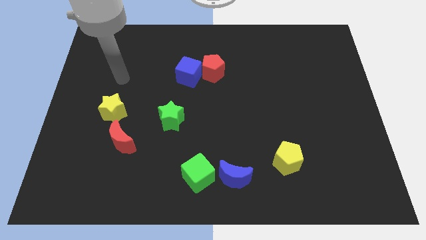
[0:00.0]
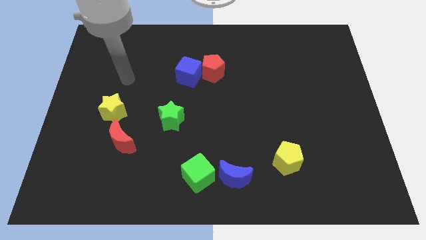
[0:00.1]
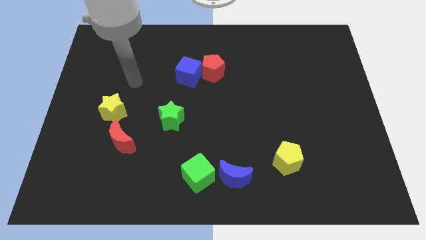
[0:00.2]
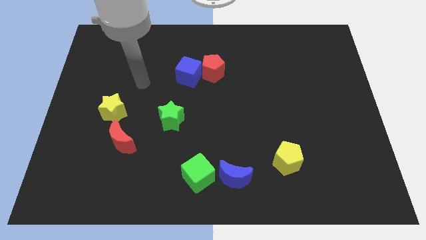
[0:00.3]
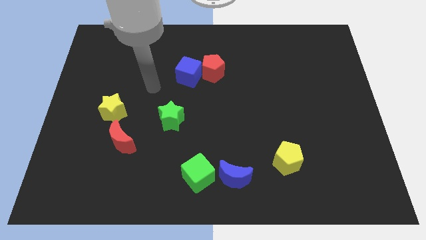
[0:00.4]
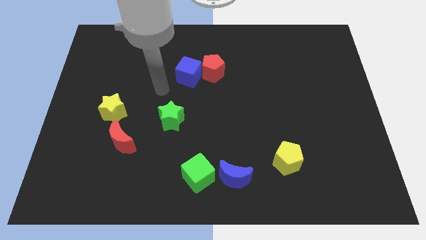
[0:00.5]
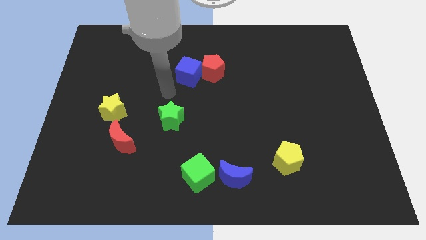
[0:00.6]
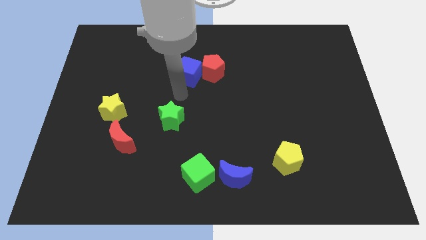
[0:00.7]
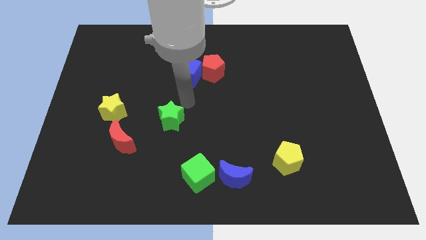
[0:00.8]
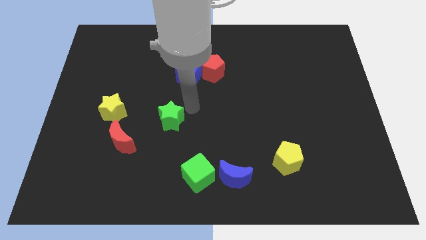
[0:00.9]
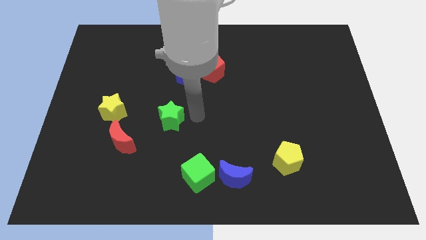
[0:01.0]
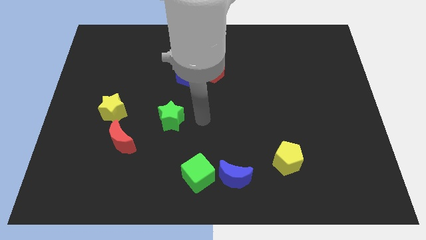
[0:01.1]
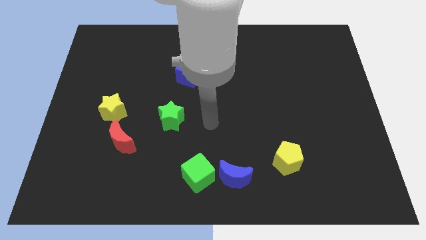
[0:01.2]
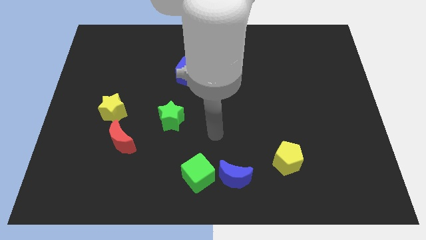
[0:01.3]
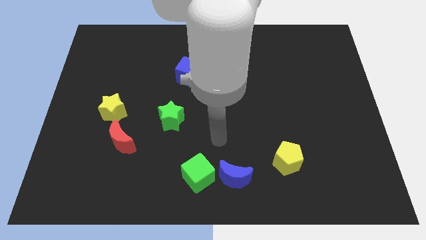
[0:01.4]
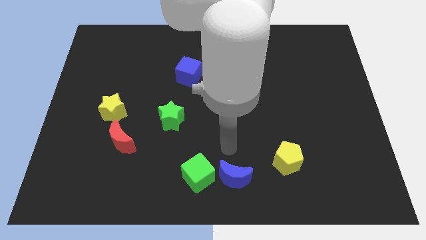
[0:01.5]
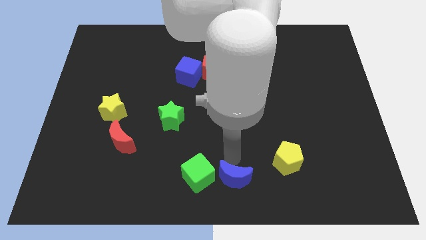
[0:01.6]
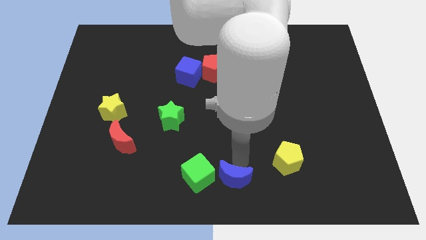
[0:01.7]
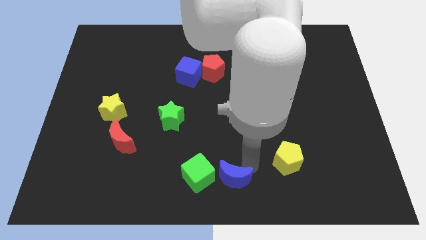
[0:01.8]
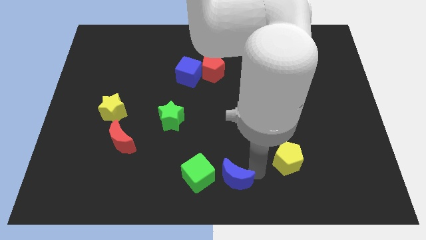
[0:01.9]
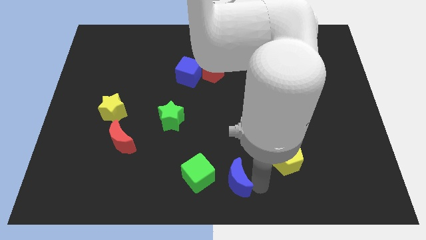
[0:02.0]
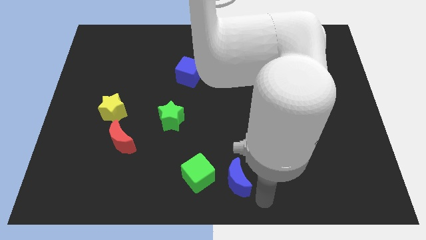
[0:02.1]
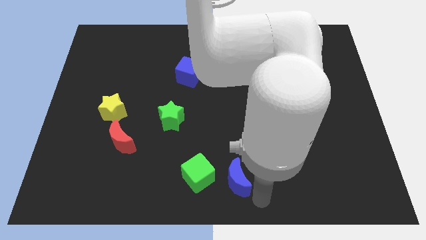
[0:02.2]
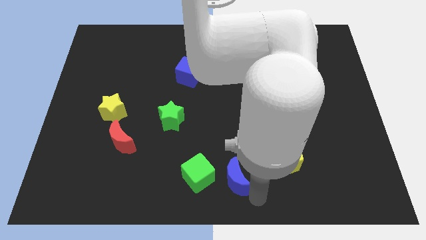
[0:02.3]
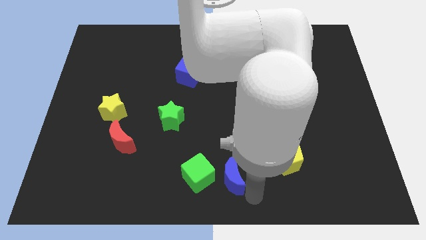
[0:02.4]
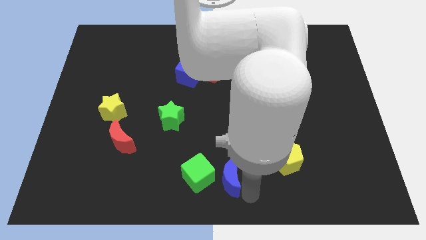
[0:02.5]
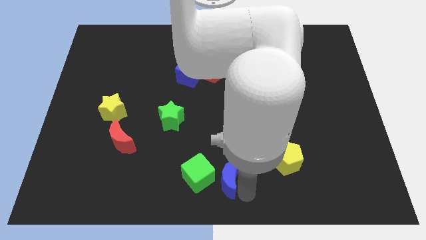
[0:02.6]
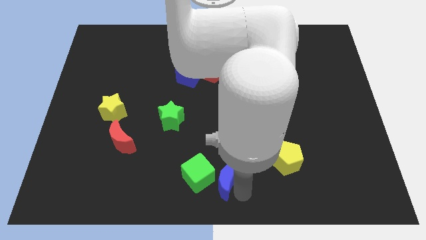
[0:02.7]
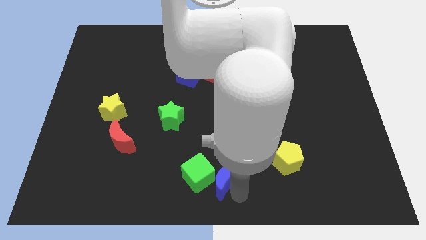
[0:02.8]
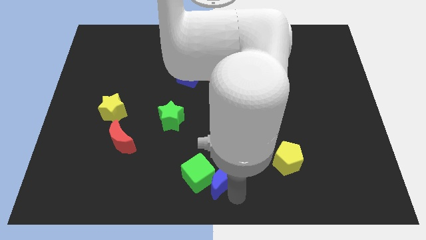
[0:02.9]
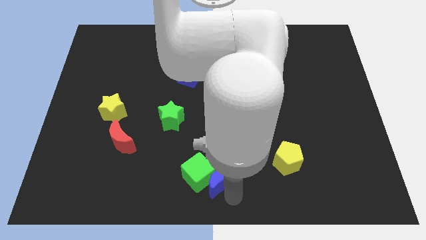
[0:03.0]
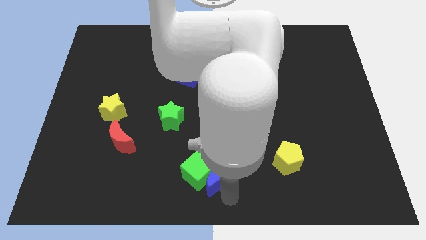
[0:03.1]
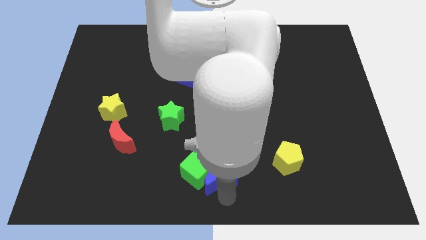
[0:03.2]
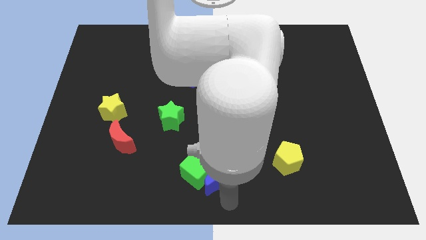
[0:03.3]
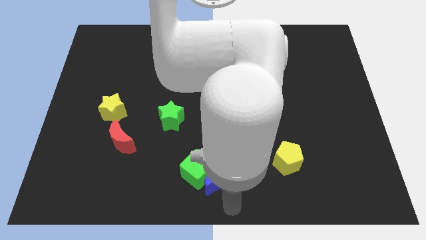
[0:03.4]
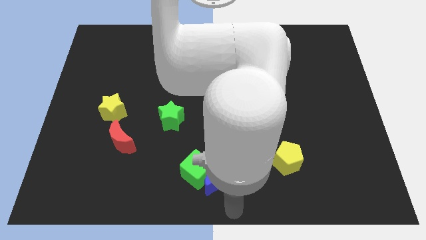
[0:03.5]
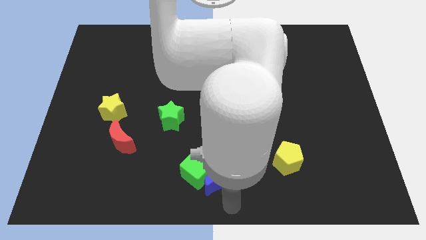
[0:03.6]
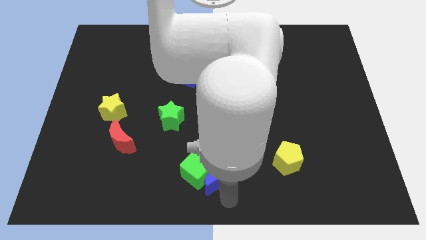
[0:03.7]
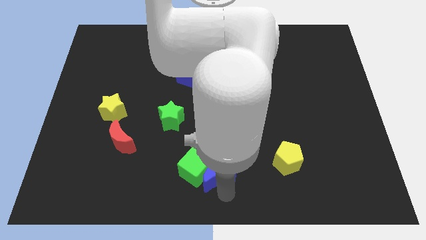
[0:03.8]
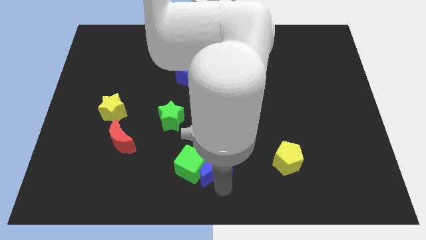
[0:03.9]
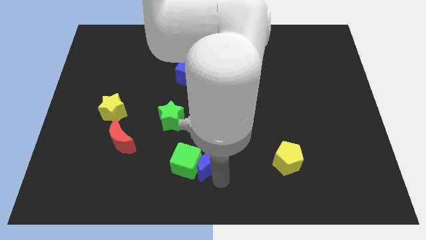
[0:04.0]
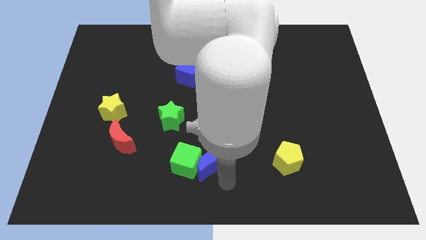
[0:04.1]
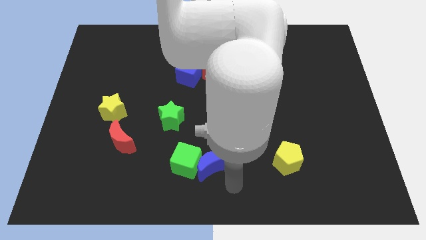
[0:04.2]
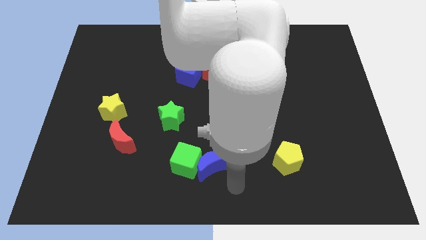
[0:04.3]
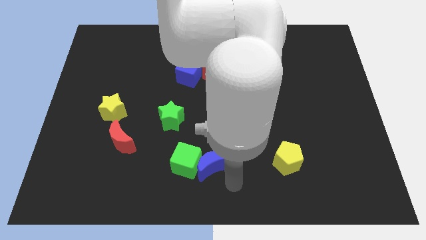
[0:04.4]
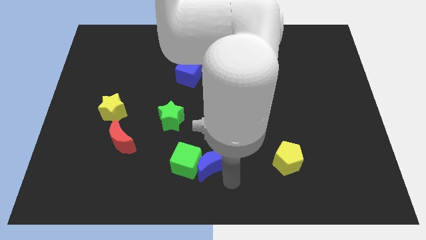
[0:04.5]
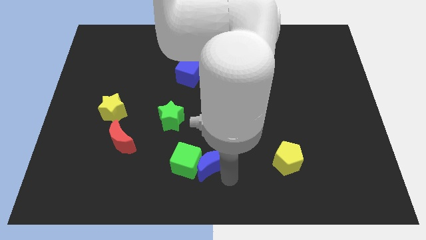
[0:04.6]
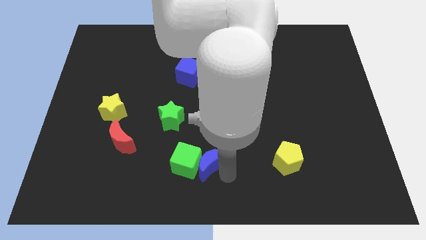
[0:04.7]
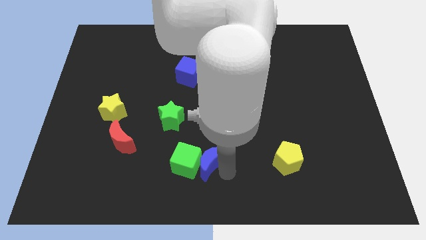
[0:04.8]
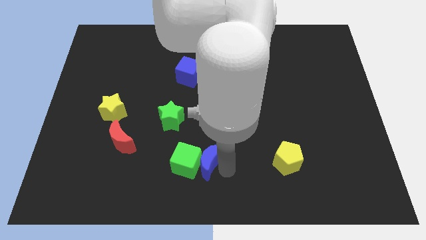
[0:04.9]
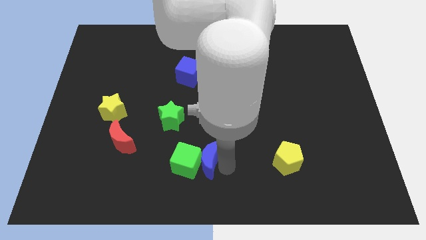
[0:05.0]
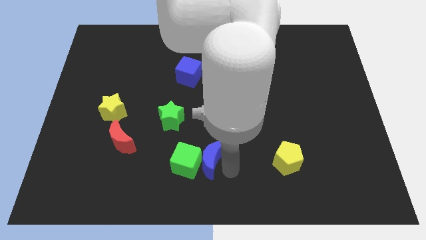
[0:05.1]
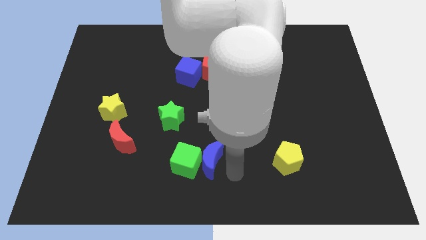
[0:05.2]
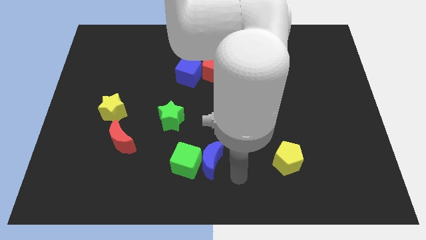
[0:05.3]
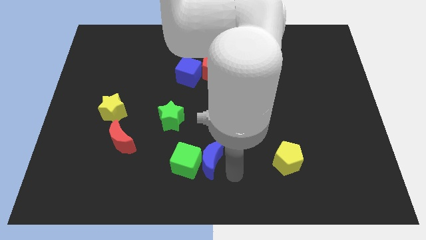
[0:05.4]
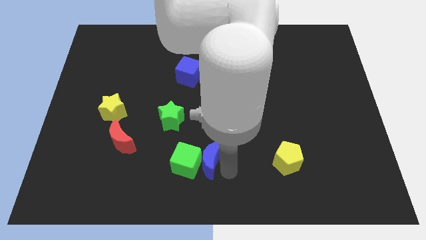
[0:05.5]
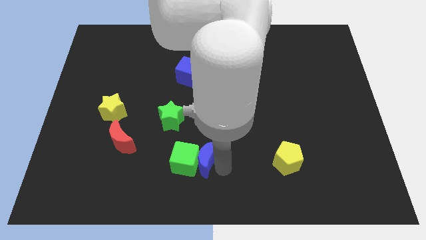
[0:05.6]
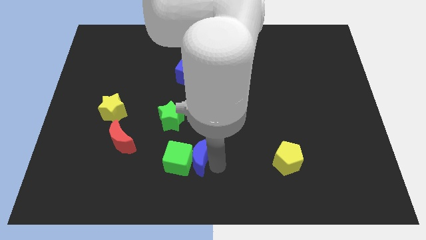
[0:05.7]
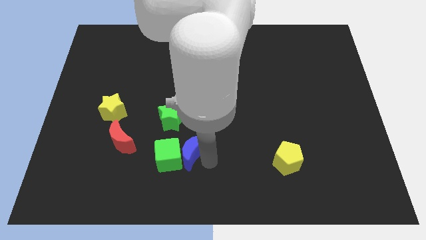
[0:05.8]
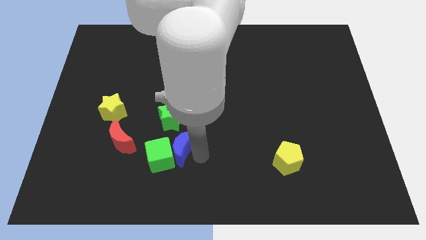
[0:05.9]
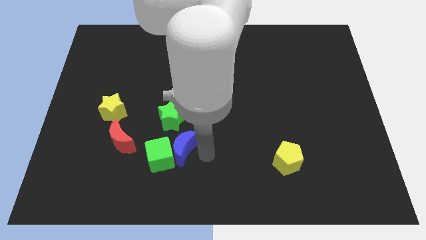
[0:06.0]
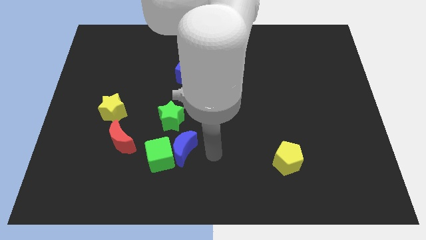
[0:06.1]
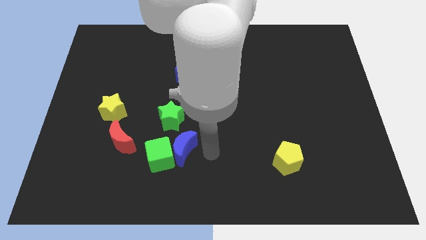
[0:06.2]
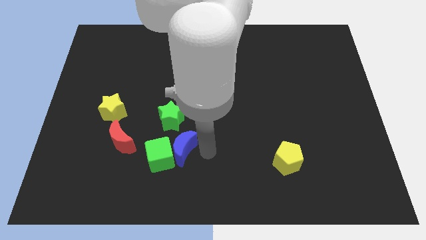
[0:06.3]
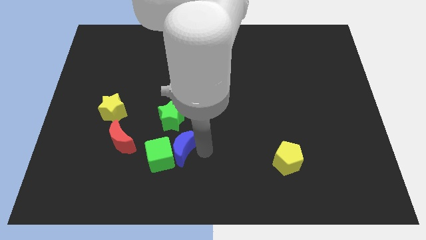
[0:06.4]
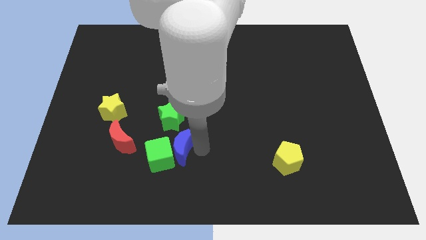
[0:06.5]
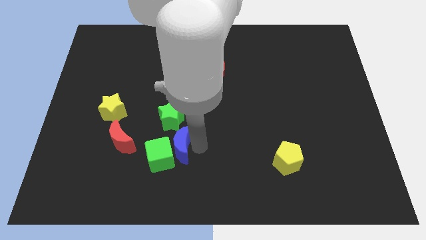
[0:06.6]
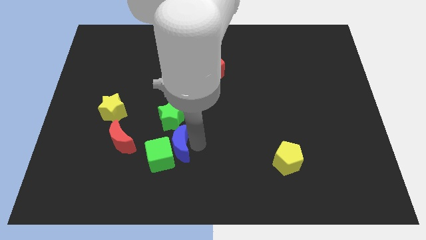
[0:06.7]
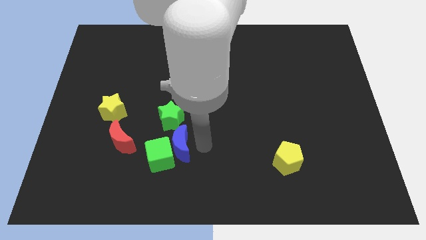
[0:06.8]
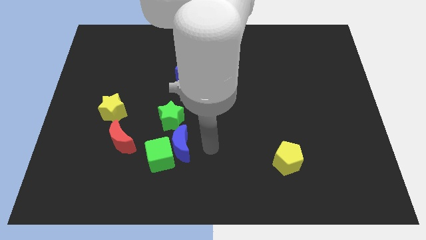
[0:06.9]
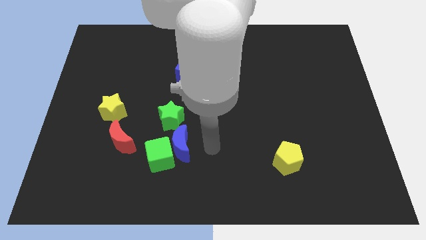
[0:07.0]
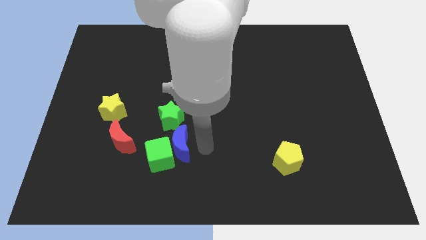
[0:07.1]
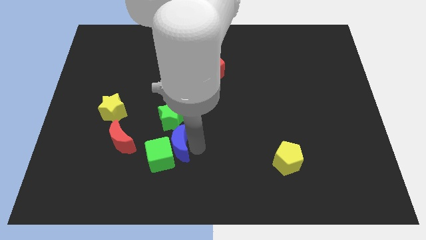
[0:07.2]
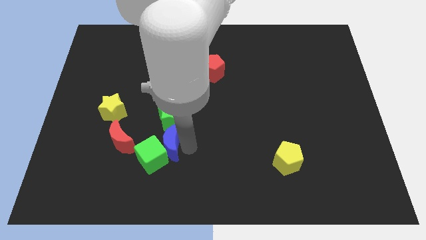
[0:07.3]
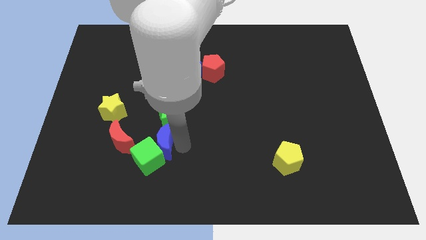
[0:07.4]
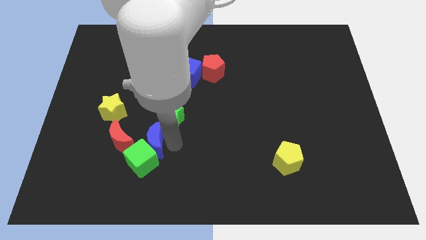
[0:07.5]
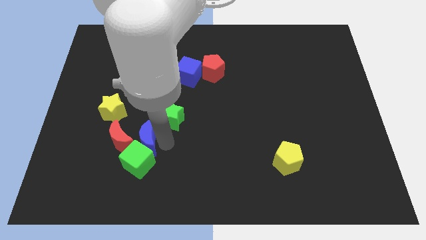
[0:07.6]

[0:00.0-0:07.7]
move the blue moon close to the red moon
